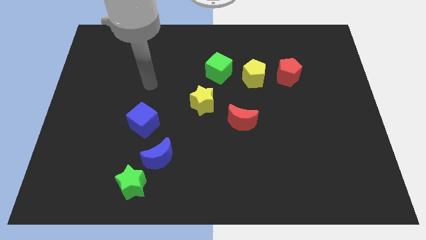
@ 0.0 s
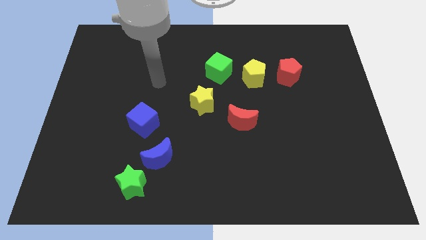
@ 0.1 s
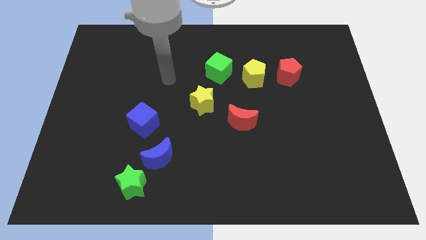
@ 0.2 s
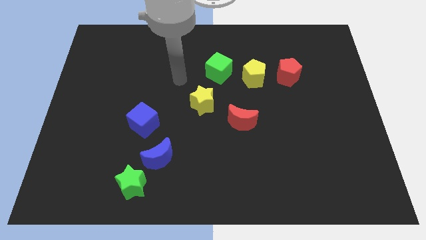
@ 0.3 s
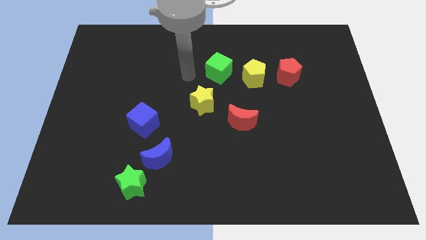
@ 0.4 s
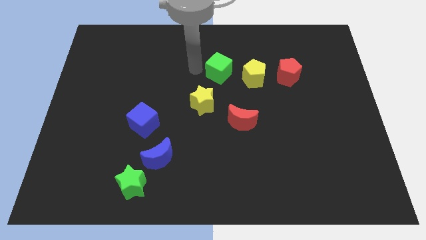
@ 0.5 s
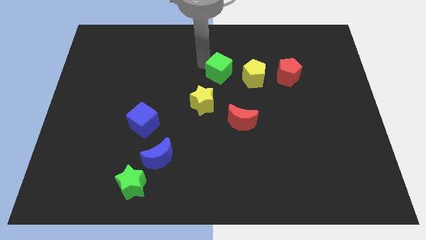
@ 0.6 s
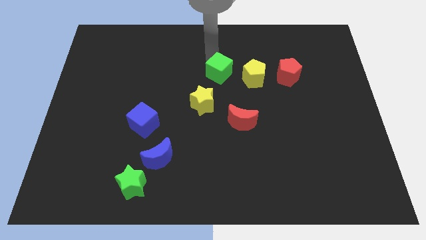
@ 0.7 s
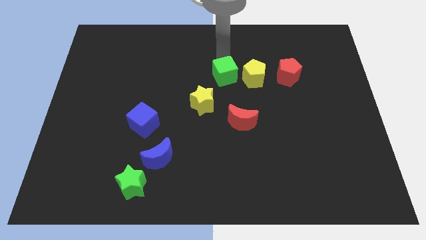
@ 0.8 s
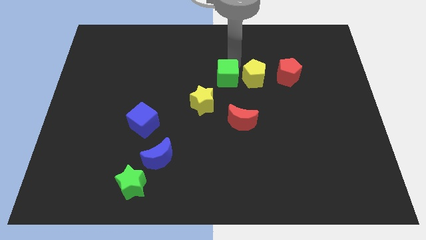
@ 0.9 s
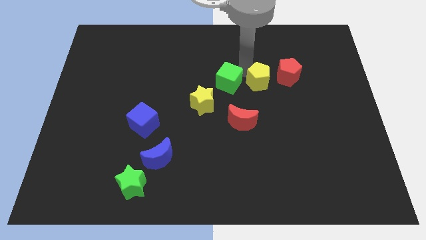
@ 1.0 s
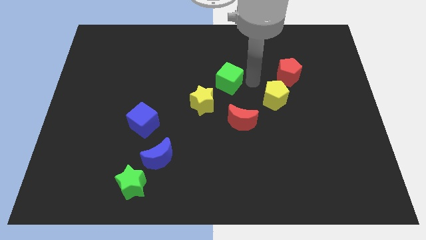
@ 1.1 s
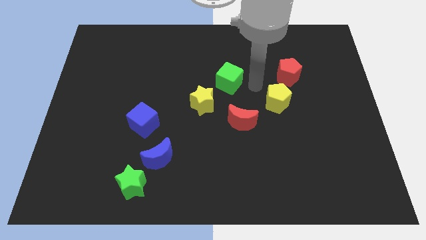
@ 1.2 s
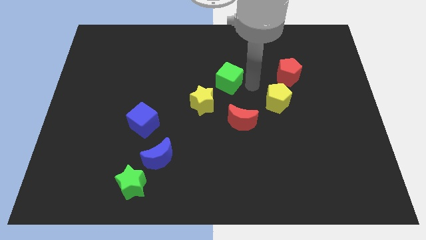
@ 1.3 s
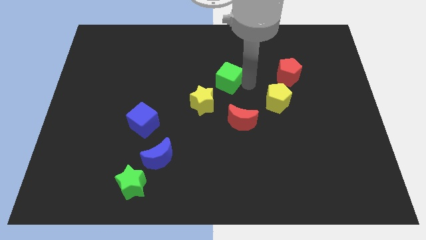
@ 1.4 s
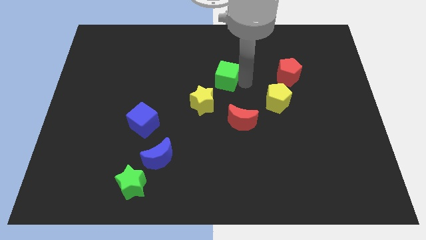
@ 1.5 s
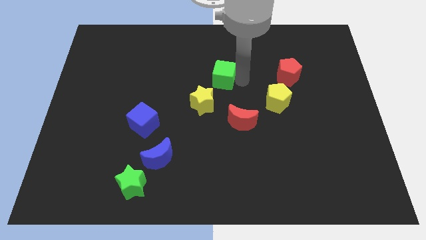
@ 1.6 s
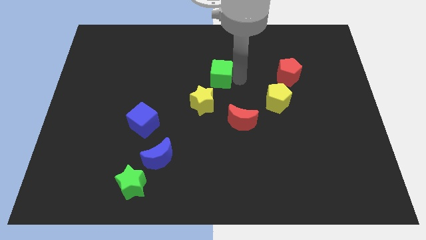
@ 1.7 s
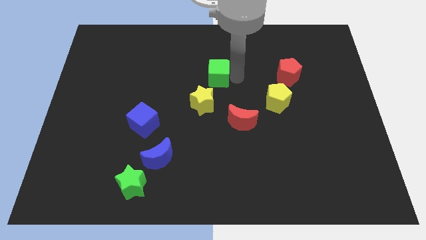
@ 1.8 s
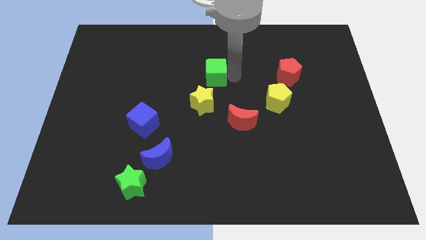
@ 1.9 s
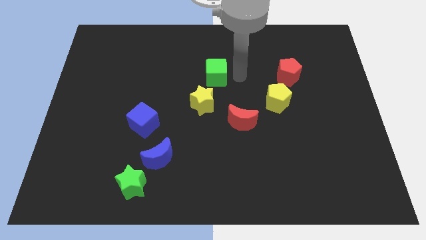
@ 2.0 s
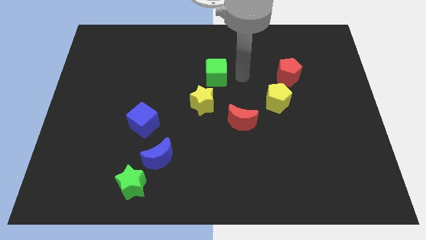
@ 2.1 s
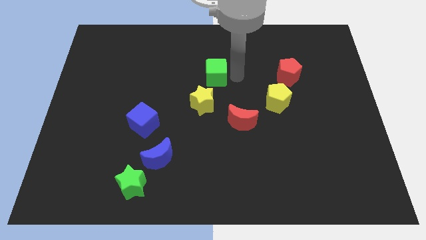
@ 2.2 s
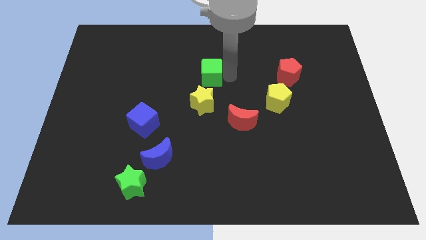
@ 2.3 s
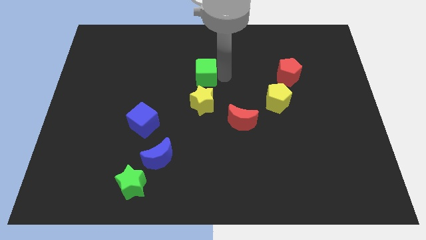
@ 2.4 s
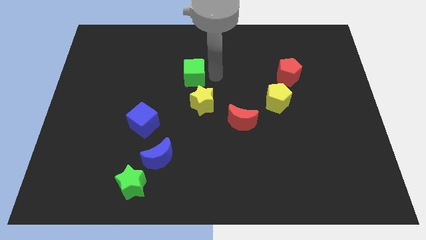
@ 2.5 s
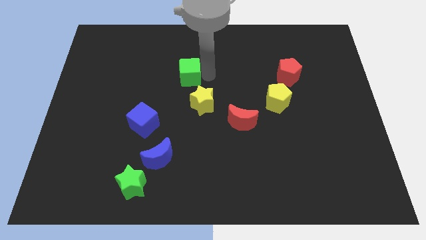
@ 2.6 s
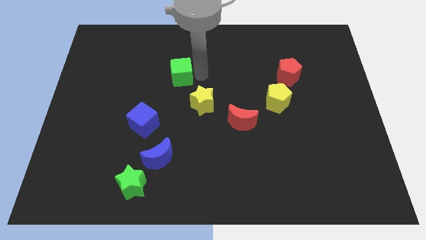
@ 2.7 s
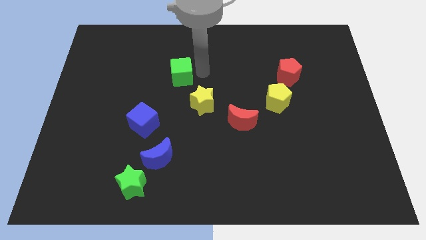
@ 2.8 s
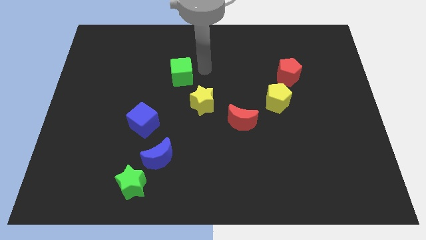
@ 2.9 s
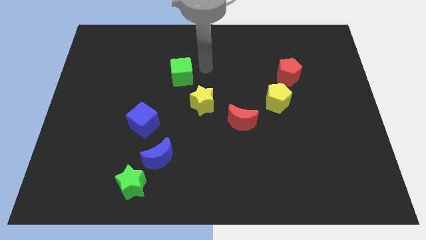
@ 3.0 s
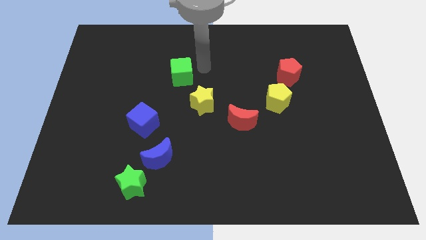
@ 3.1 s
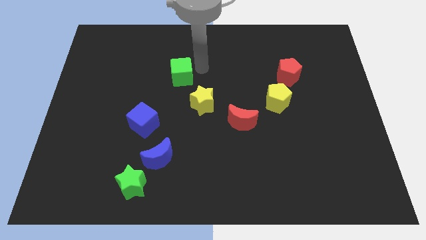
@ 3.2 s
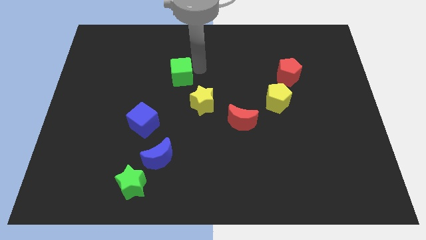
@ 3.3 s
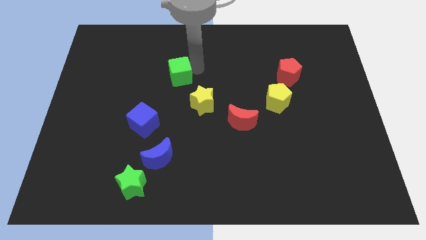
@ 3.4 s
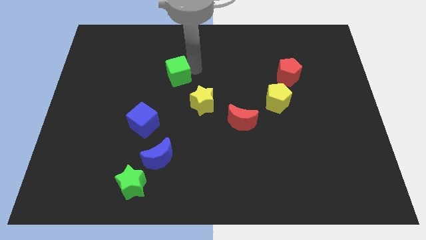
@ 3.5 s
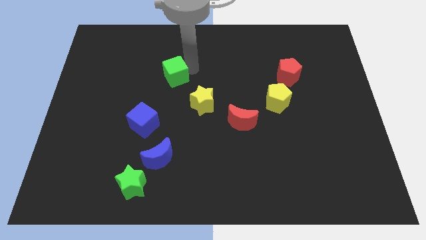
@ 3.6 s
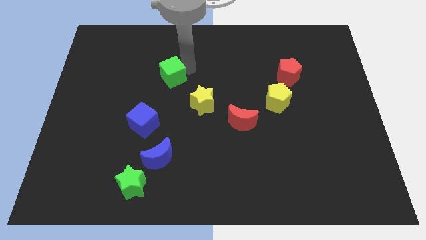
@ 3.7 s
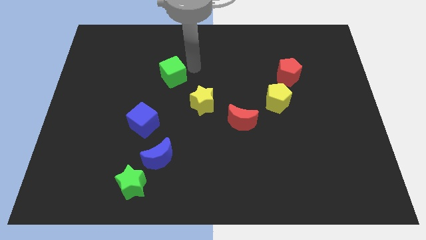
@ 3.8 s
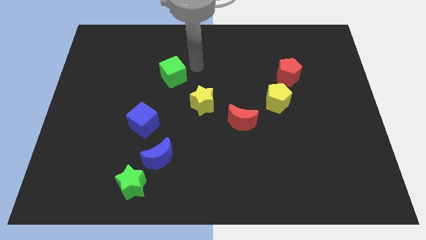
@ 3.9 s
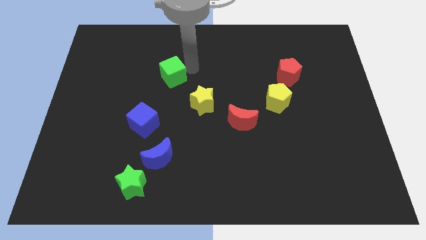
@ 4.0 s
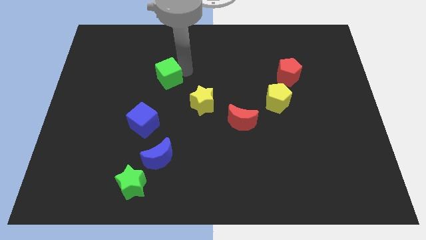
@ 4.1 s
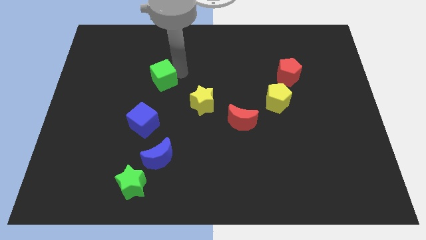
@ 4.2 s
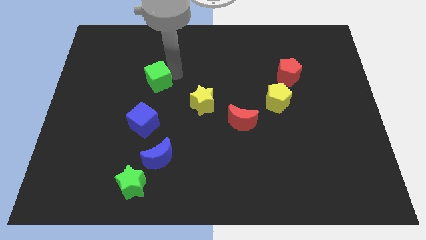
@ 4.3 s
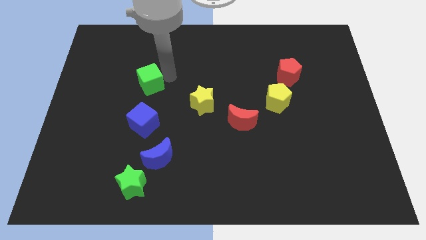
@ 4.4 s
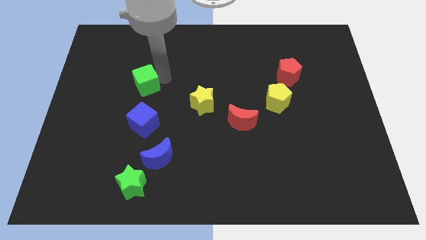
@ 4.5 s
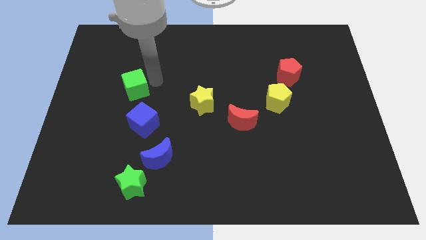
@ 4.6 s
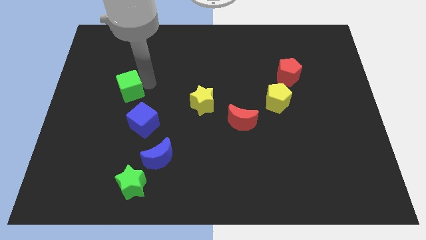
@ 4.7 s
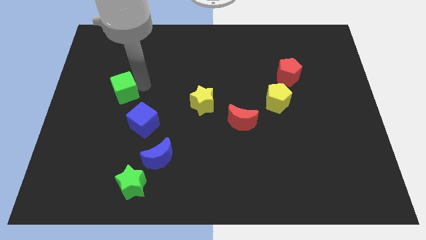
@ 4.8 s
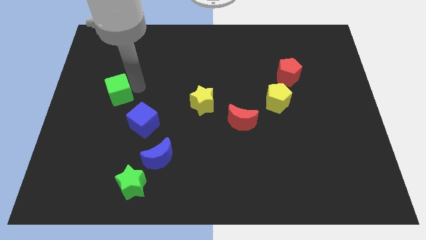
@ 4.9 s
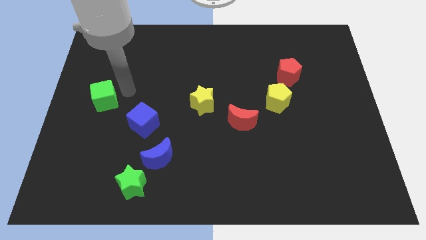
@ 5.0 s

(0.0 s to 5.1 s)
put the green cube to the center left

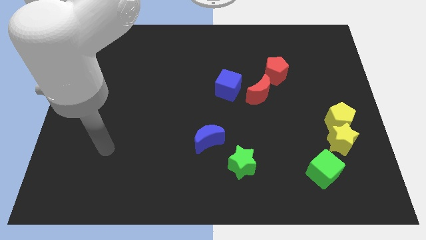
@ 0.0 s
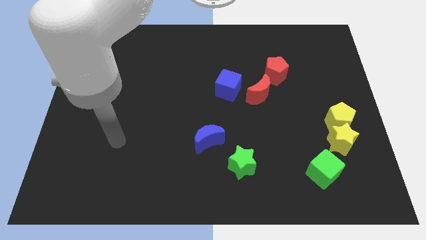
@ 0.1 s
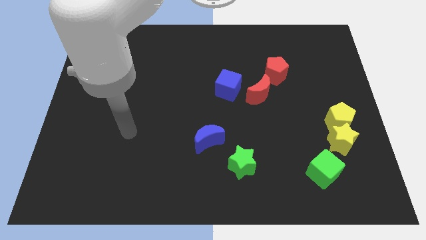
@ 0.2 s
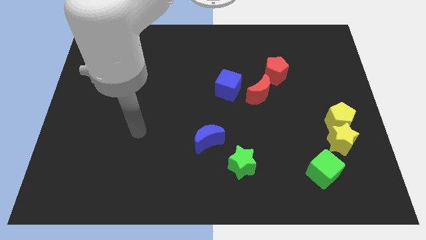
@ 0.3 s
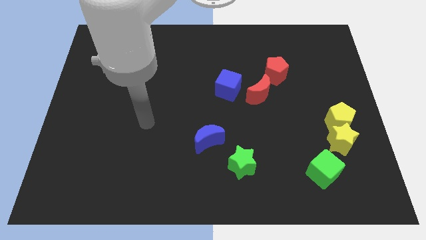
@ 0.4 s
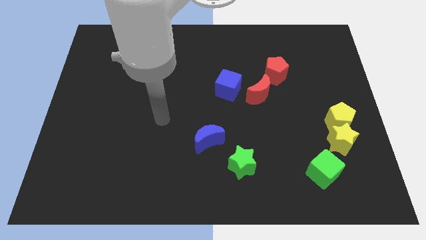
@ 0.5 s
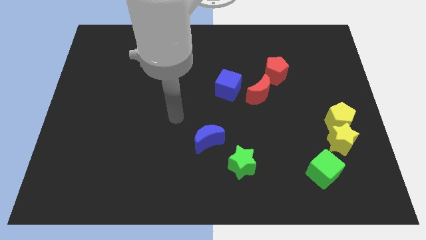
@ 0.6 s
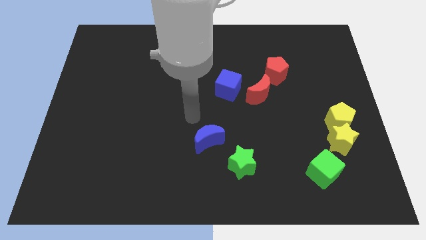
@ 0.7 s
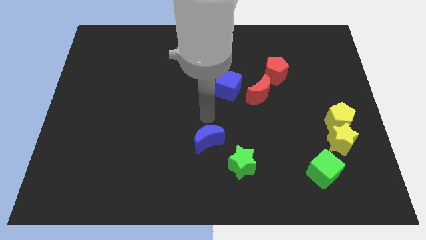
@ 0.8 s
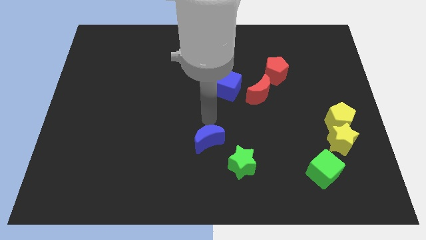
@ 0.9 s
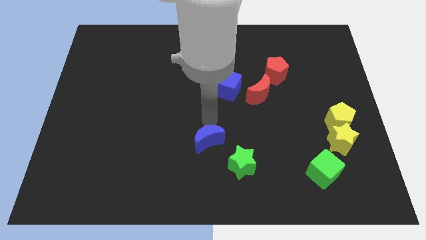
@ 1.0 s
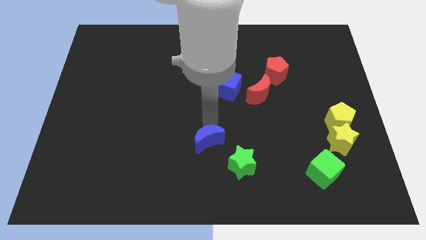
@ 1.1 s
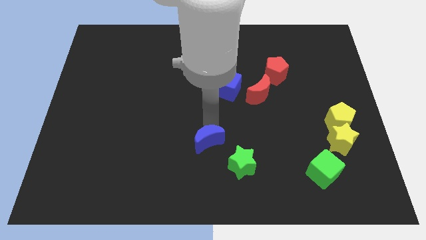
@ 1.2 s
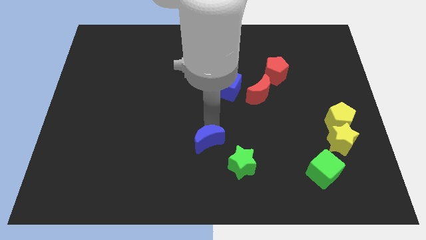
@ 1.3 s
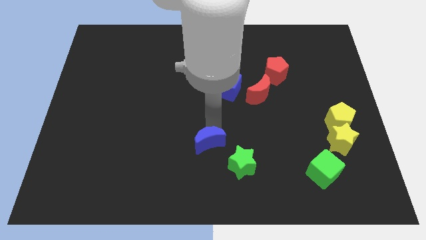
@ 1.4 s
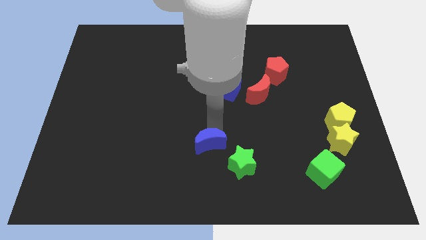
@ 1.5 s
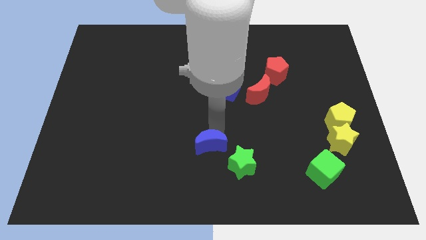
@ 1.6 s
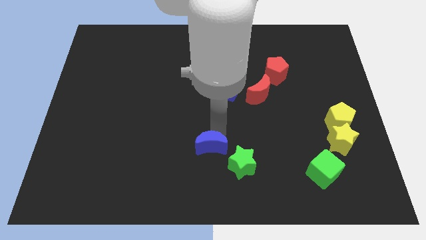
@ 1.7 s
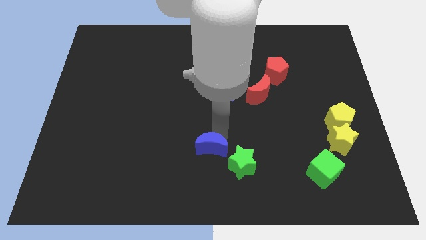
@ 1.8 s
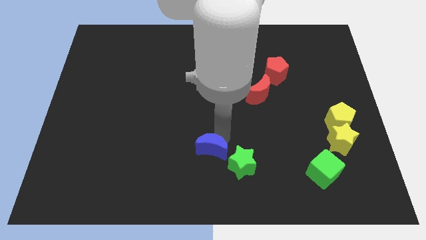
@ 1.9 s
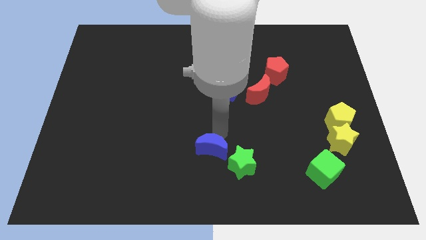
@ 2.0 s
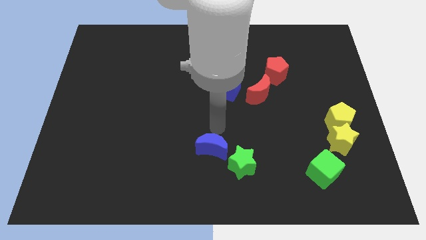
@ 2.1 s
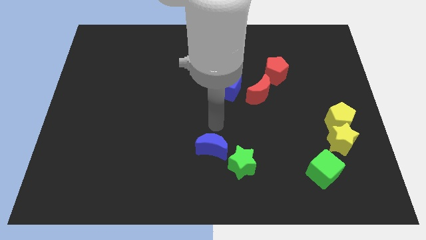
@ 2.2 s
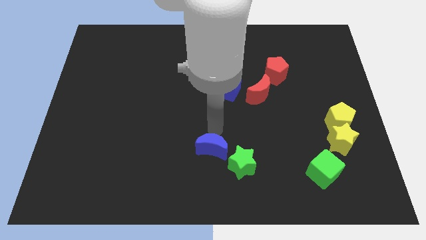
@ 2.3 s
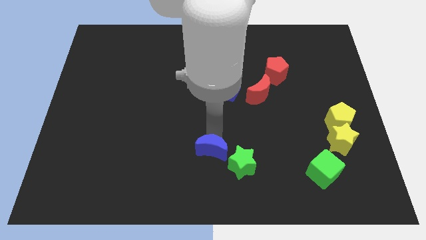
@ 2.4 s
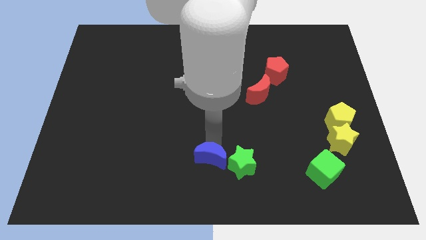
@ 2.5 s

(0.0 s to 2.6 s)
slide the blue moon to the bottom
